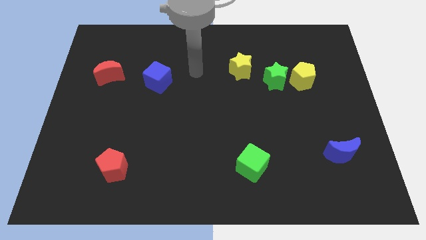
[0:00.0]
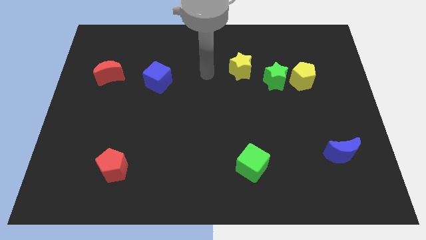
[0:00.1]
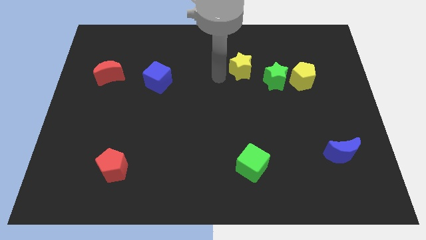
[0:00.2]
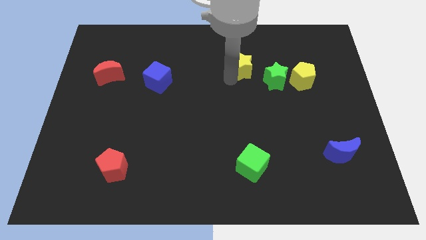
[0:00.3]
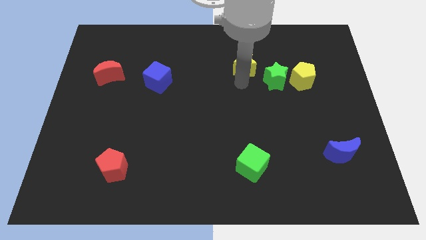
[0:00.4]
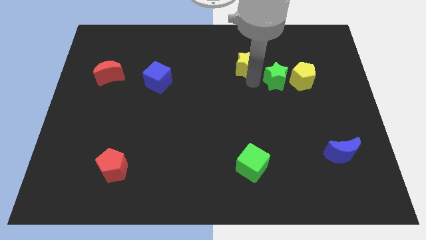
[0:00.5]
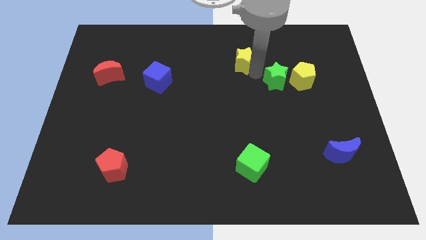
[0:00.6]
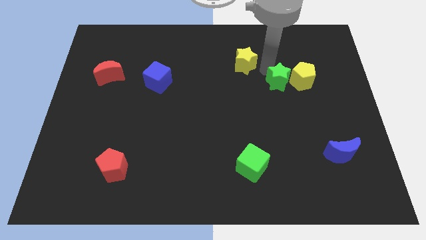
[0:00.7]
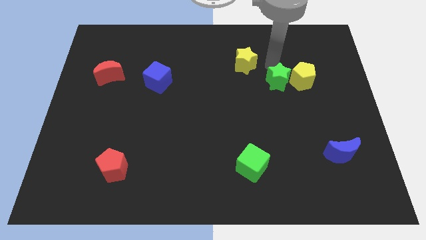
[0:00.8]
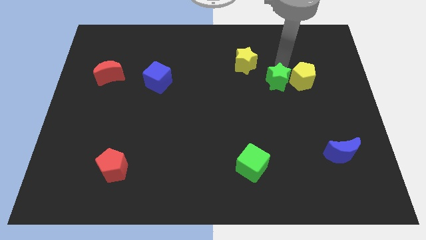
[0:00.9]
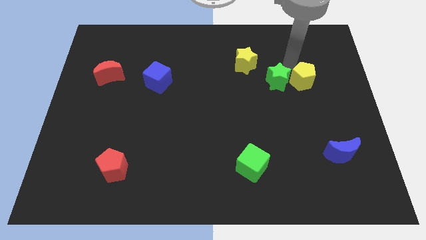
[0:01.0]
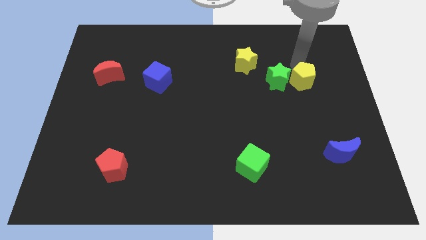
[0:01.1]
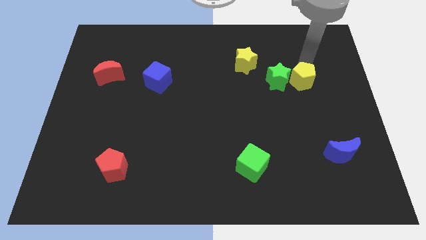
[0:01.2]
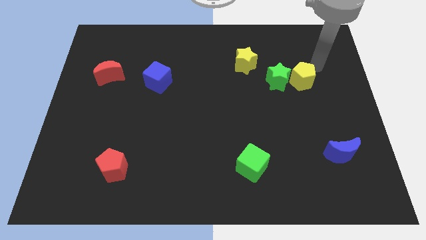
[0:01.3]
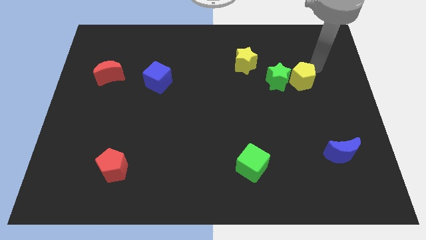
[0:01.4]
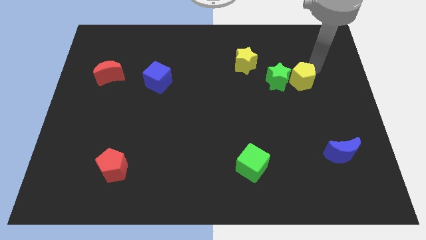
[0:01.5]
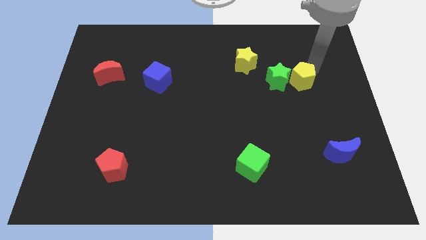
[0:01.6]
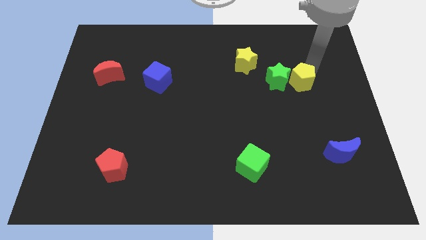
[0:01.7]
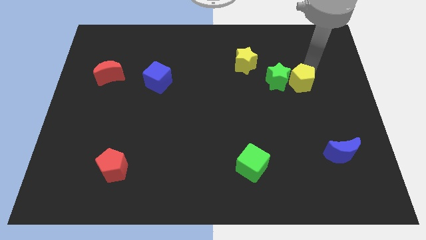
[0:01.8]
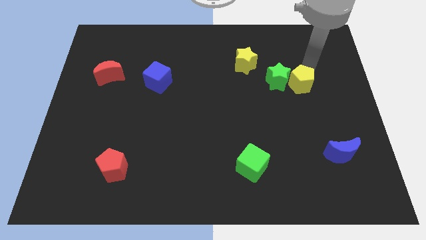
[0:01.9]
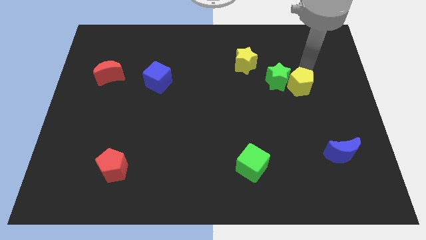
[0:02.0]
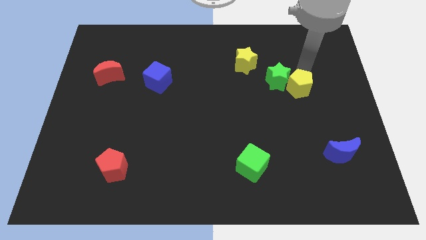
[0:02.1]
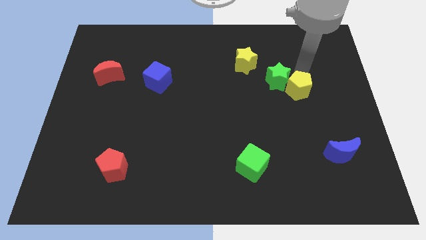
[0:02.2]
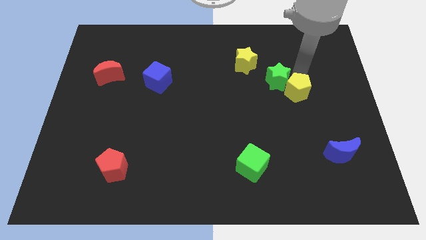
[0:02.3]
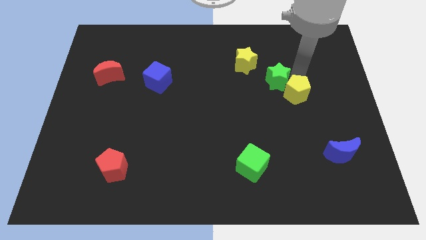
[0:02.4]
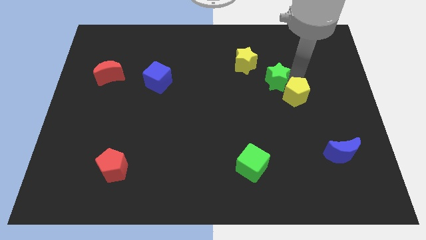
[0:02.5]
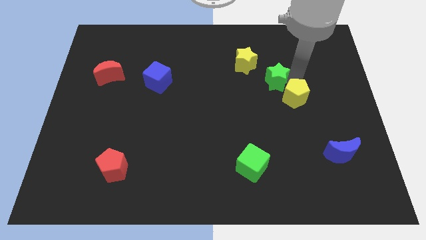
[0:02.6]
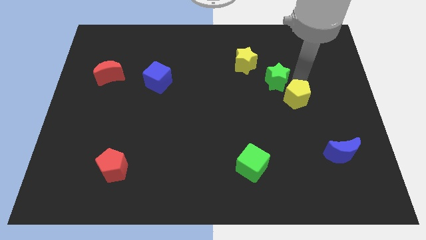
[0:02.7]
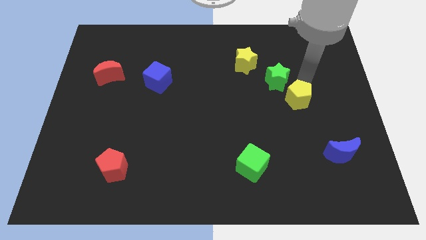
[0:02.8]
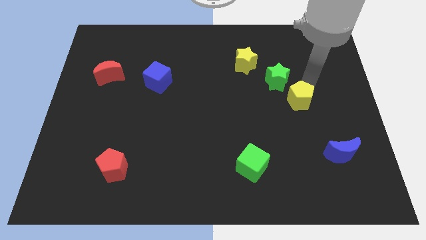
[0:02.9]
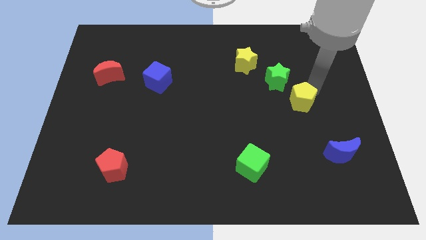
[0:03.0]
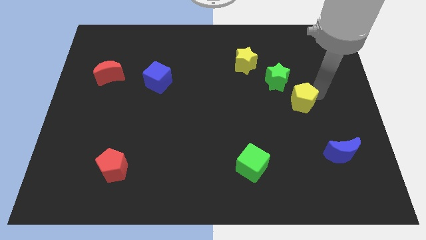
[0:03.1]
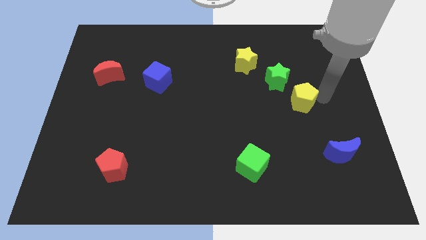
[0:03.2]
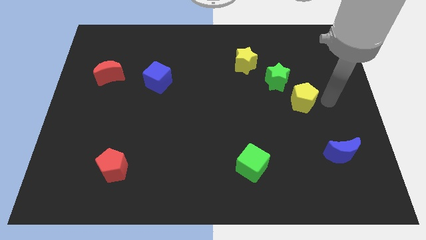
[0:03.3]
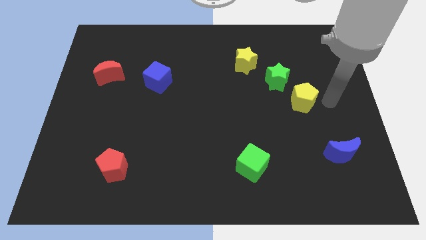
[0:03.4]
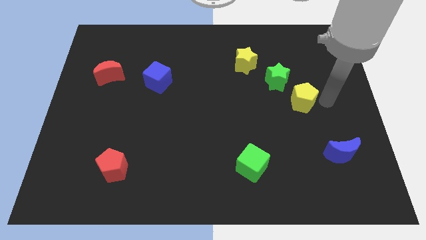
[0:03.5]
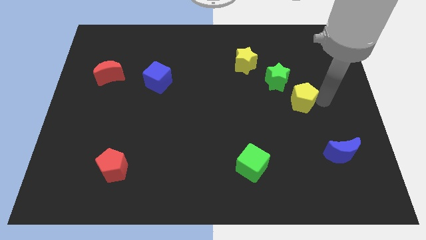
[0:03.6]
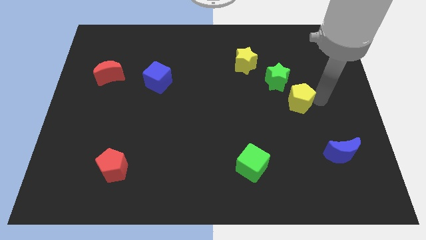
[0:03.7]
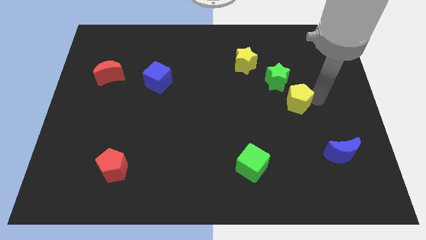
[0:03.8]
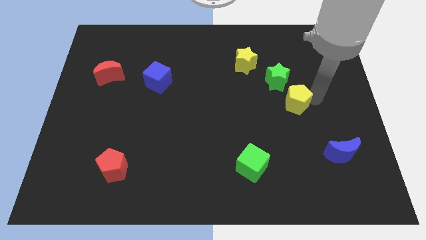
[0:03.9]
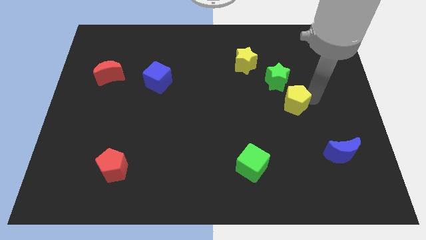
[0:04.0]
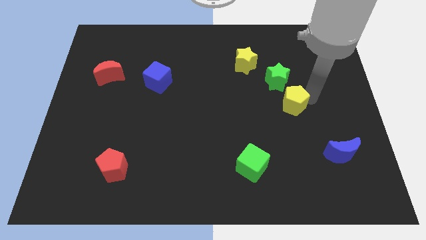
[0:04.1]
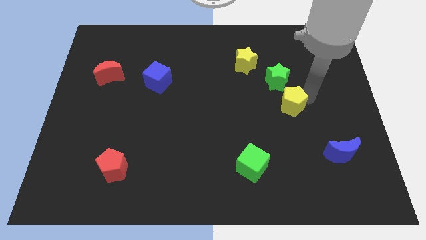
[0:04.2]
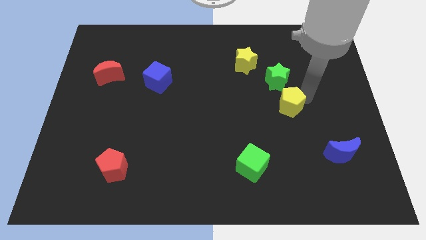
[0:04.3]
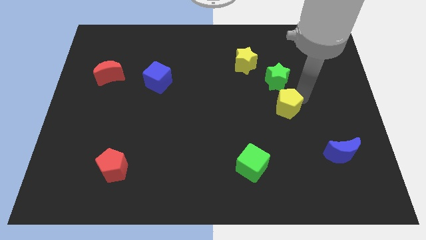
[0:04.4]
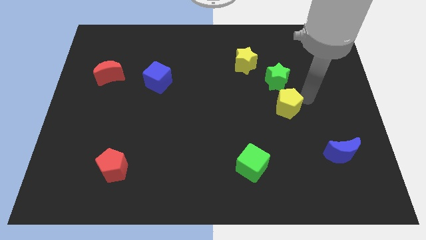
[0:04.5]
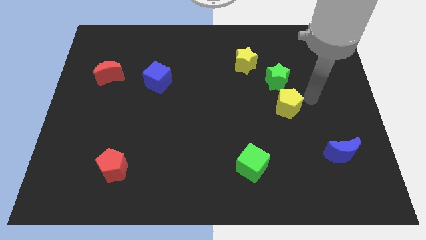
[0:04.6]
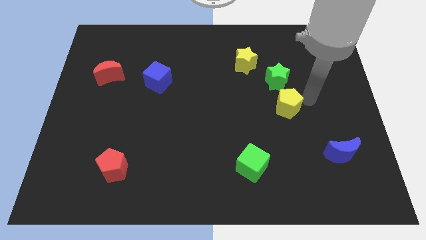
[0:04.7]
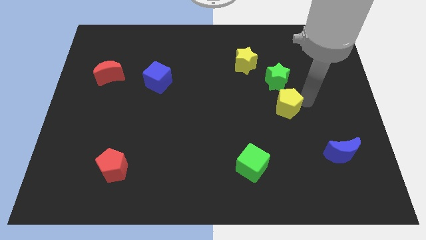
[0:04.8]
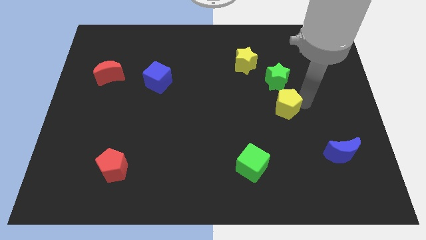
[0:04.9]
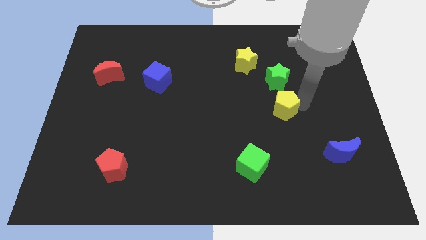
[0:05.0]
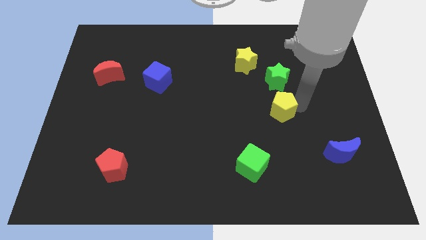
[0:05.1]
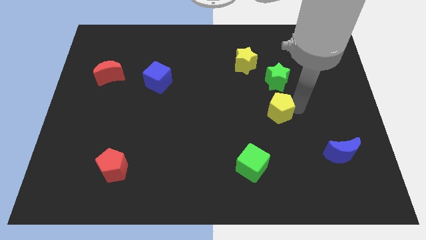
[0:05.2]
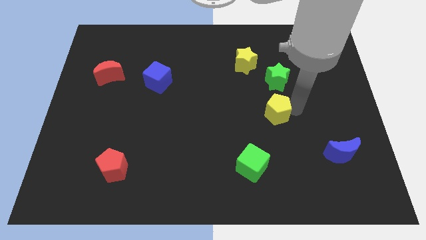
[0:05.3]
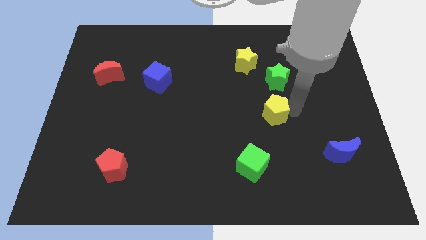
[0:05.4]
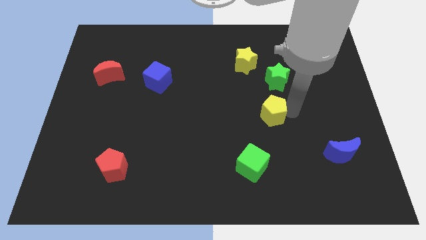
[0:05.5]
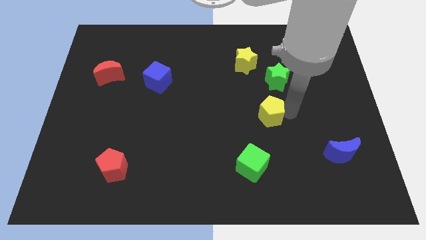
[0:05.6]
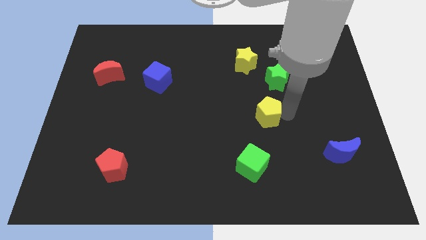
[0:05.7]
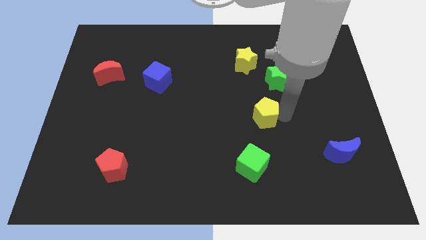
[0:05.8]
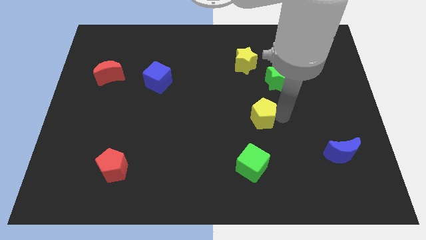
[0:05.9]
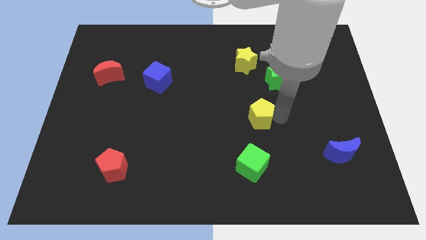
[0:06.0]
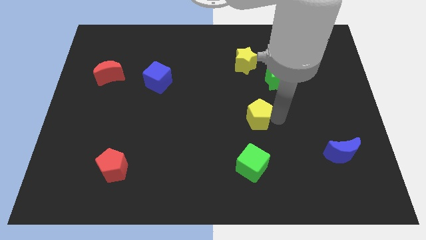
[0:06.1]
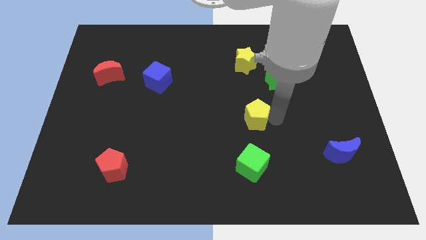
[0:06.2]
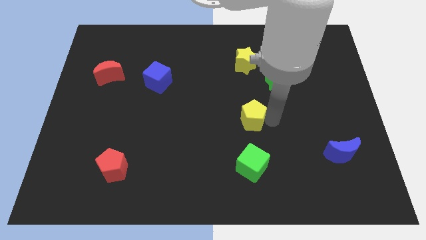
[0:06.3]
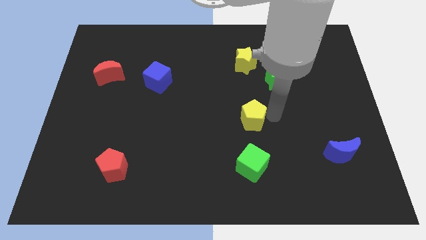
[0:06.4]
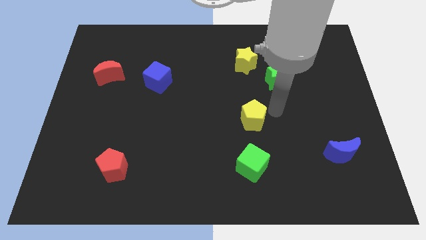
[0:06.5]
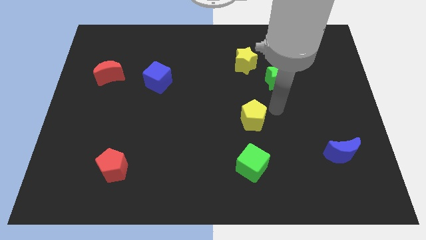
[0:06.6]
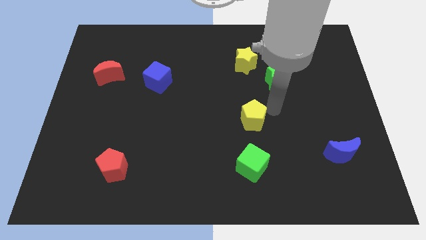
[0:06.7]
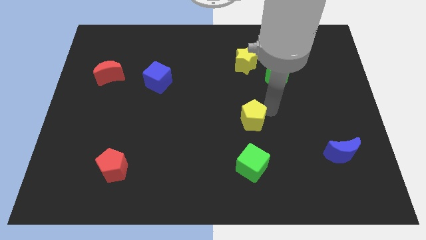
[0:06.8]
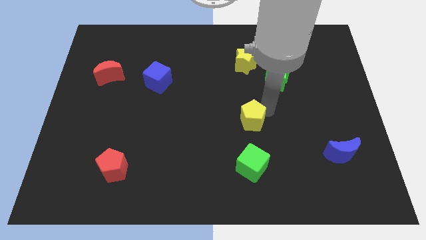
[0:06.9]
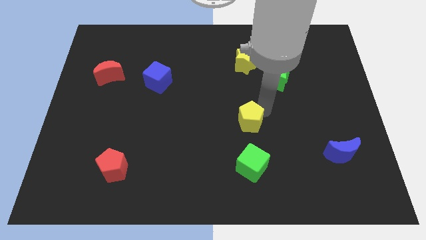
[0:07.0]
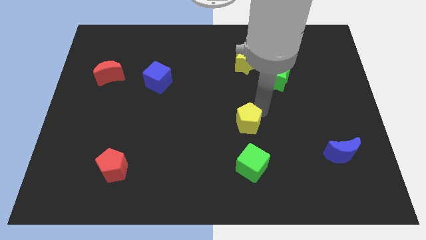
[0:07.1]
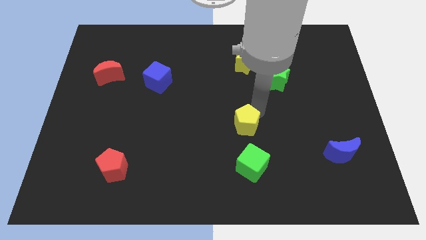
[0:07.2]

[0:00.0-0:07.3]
move the yellow pentagon diagonally down and left

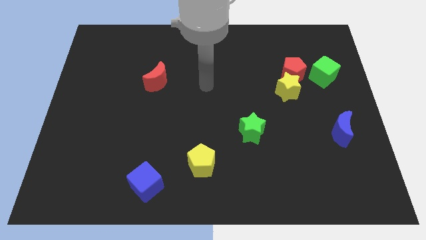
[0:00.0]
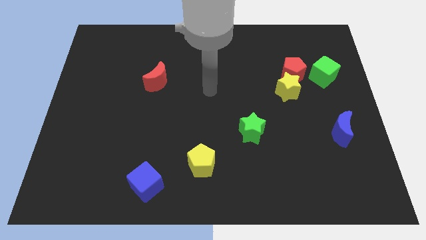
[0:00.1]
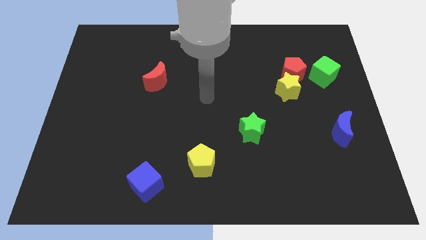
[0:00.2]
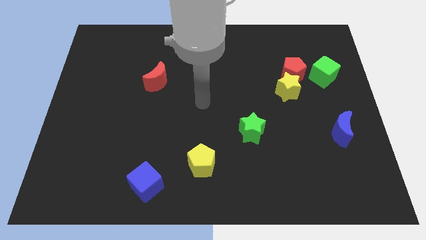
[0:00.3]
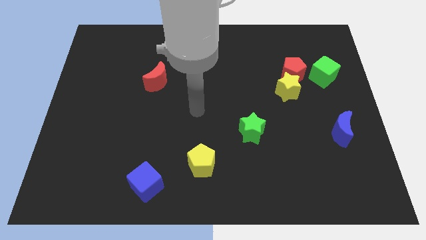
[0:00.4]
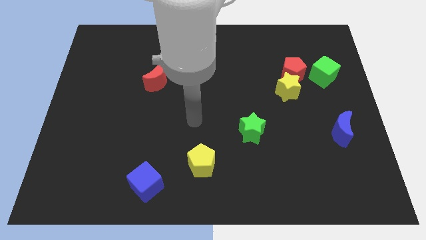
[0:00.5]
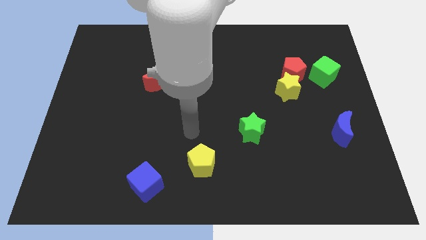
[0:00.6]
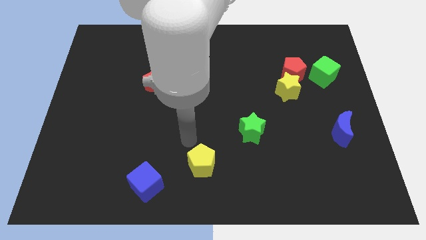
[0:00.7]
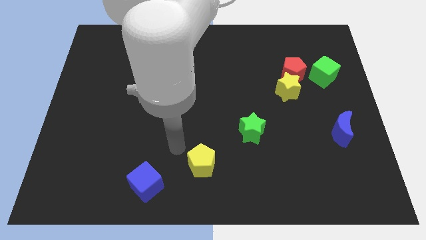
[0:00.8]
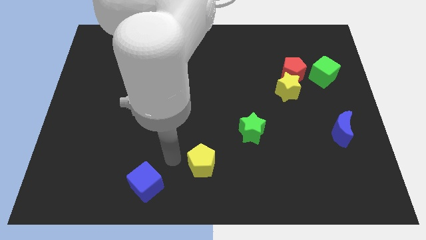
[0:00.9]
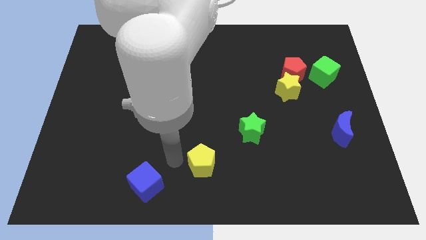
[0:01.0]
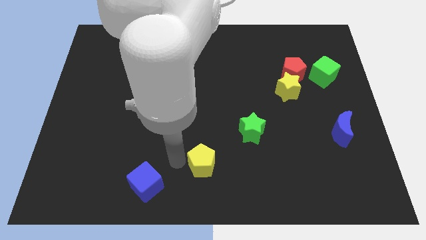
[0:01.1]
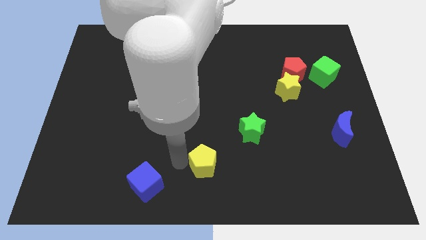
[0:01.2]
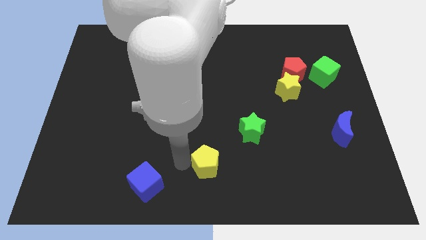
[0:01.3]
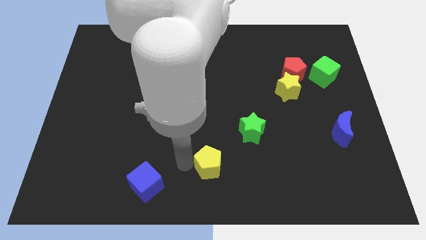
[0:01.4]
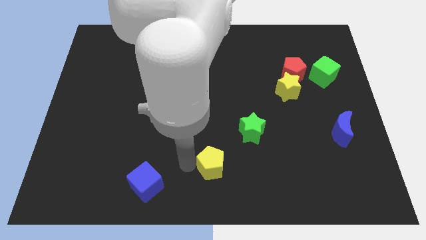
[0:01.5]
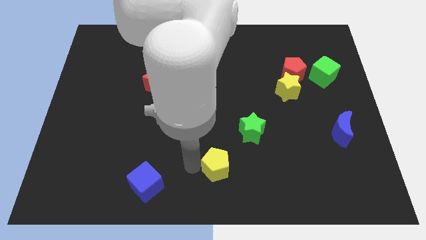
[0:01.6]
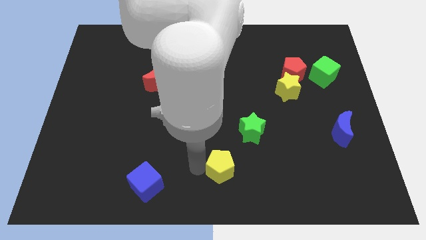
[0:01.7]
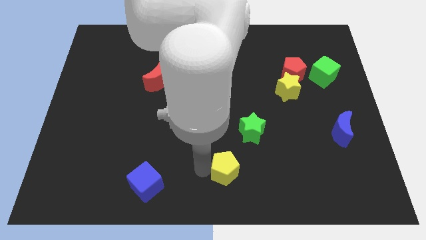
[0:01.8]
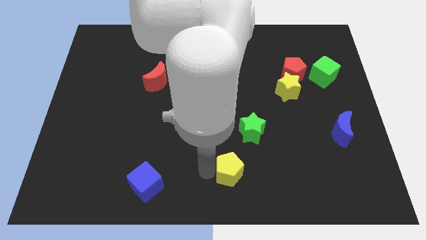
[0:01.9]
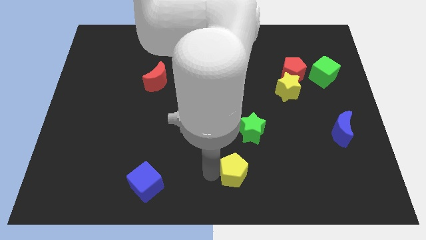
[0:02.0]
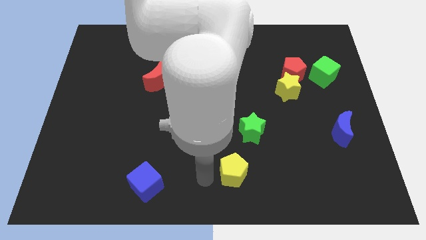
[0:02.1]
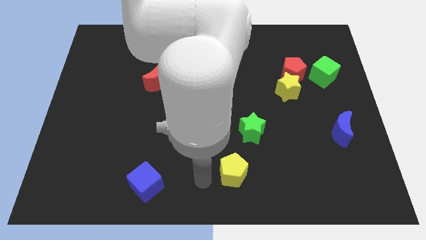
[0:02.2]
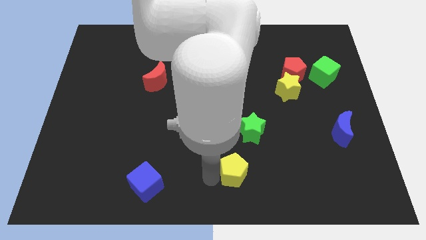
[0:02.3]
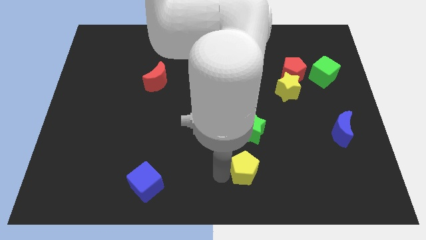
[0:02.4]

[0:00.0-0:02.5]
push the yellow pentagon to the right slightly
